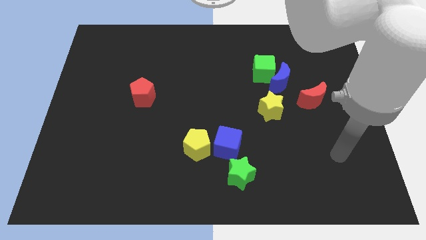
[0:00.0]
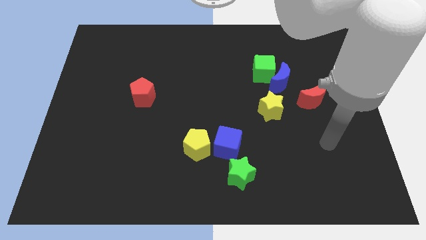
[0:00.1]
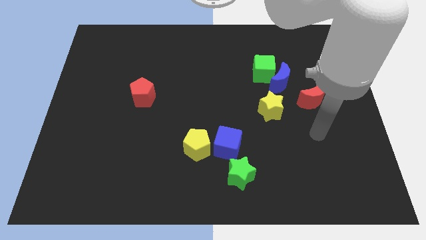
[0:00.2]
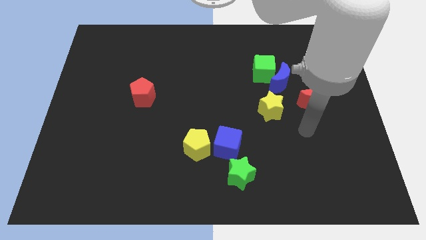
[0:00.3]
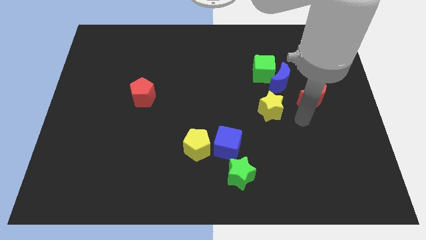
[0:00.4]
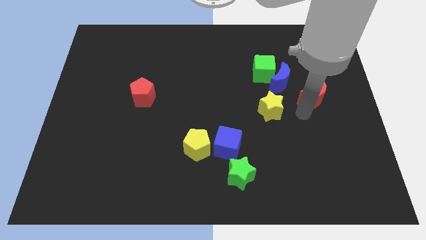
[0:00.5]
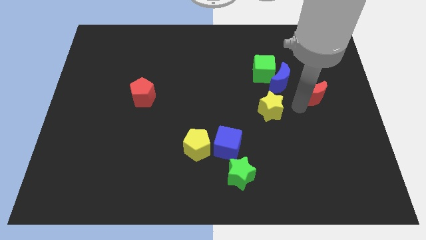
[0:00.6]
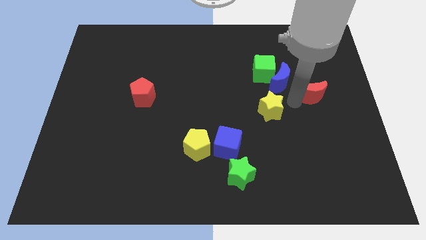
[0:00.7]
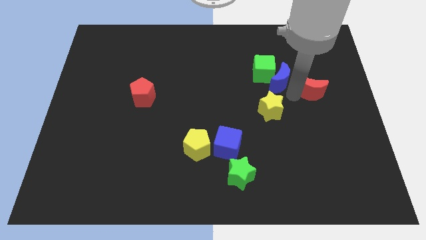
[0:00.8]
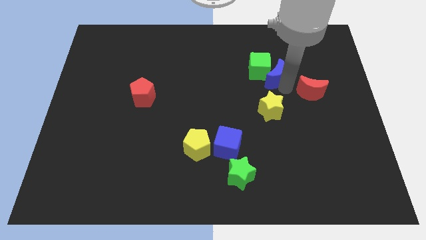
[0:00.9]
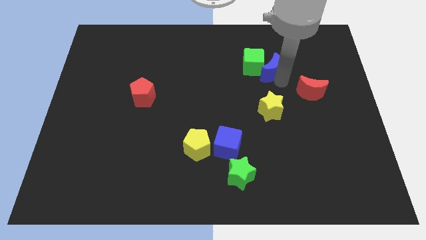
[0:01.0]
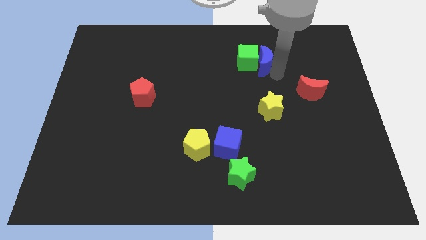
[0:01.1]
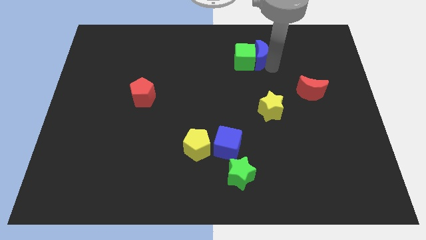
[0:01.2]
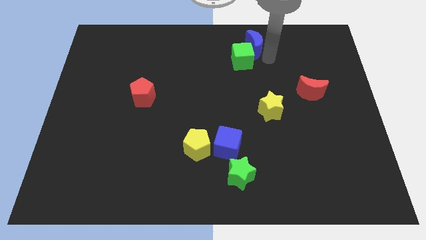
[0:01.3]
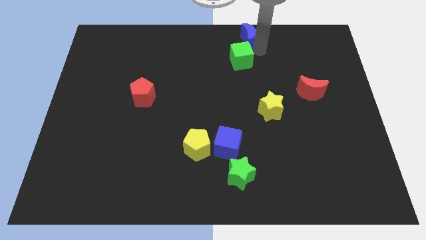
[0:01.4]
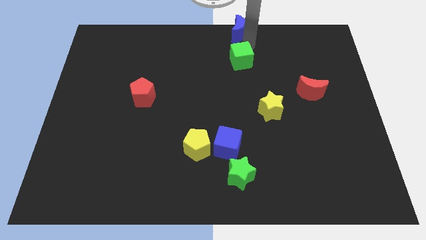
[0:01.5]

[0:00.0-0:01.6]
separate the green cube from the blue moon

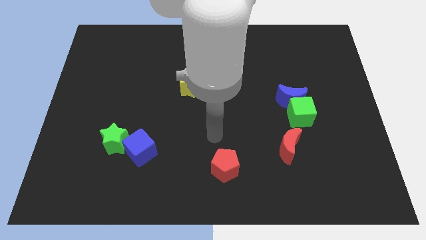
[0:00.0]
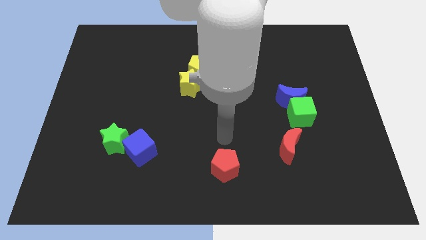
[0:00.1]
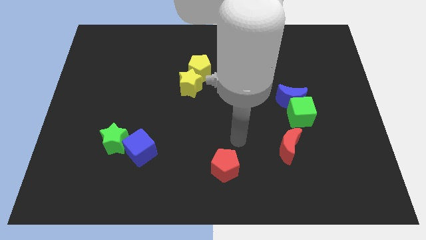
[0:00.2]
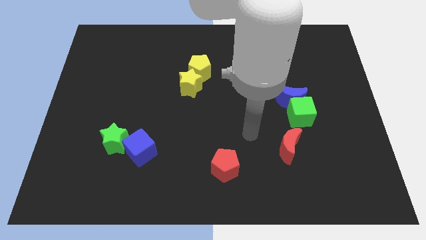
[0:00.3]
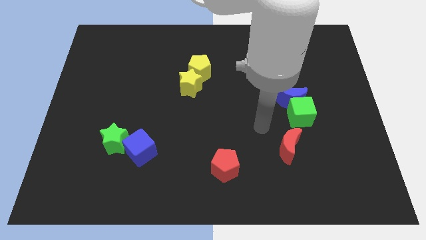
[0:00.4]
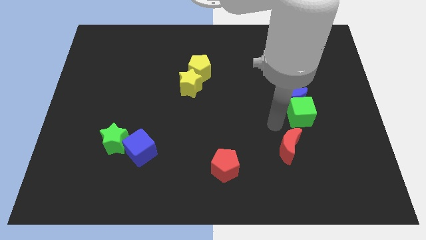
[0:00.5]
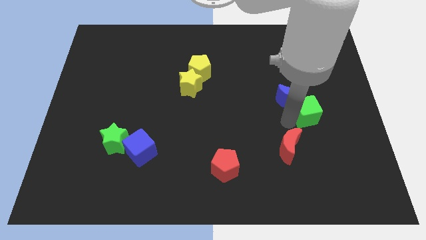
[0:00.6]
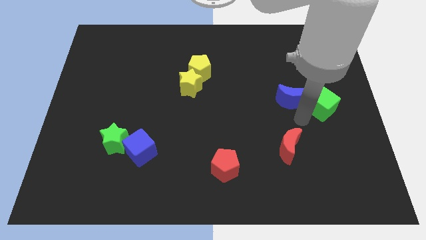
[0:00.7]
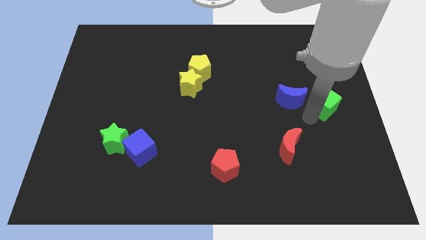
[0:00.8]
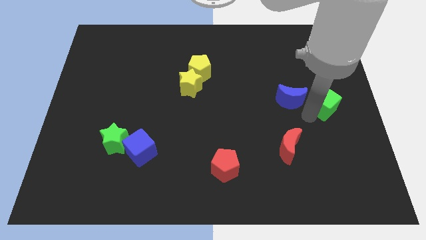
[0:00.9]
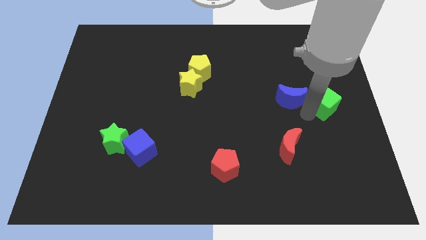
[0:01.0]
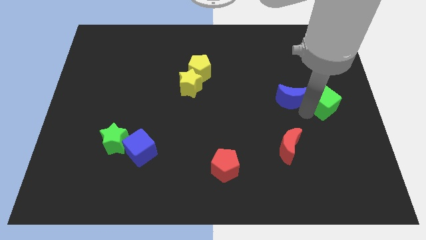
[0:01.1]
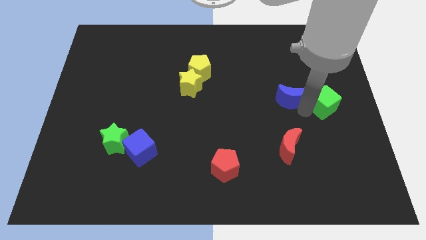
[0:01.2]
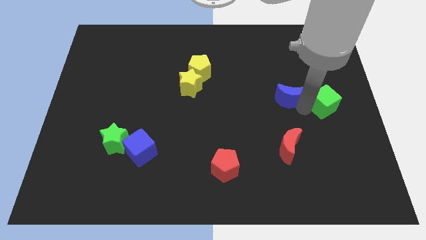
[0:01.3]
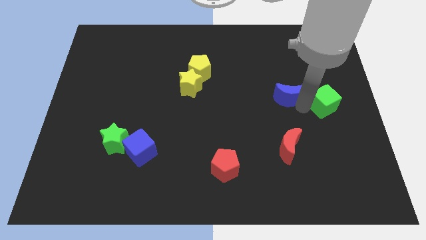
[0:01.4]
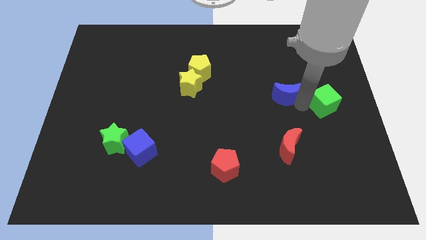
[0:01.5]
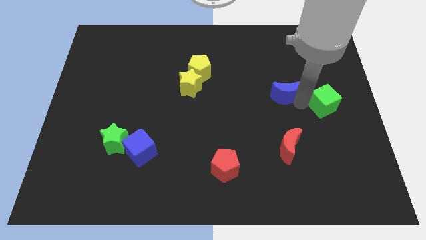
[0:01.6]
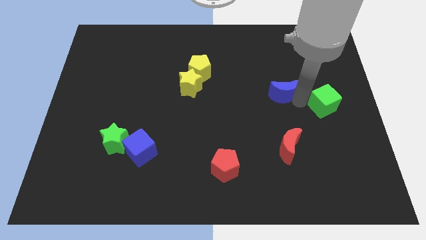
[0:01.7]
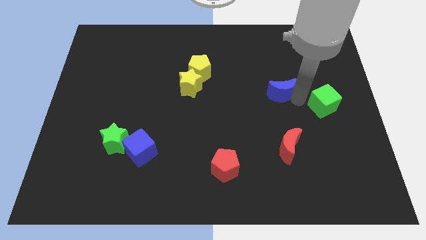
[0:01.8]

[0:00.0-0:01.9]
pull the blue moon apart from the green cube

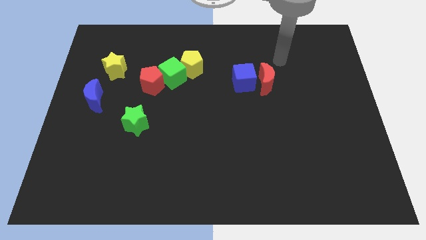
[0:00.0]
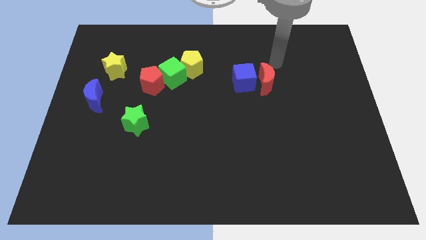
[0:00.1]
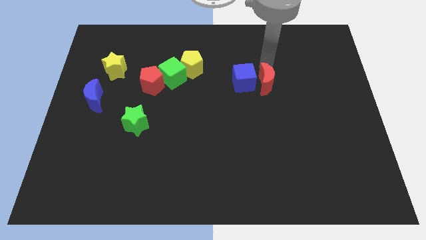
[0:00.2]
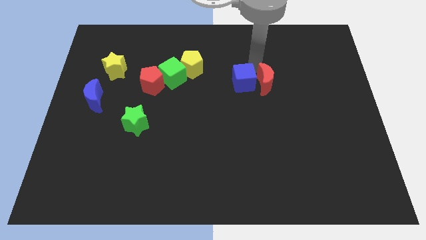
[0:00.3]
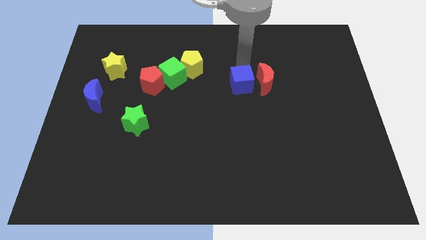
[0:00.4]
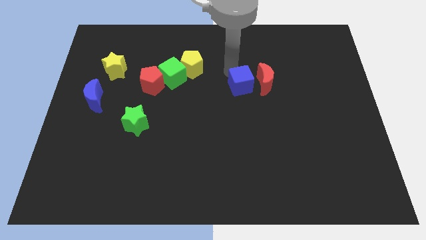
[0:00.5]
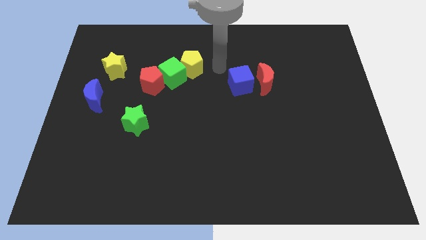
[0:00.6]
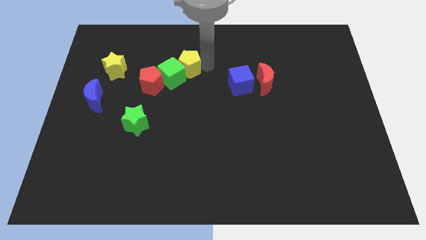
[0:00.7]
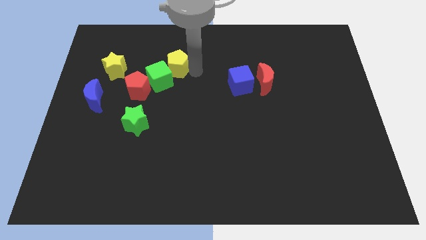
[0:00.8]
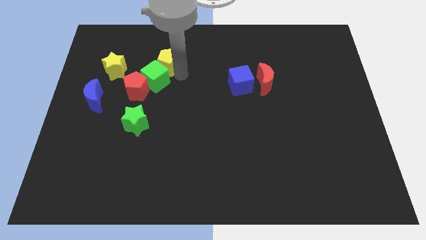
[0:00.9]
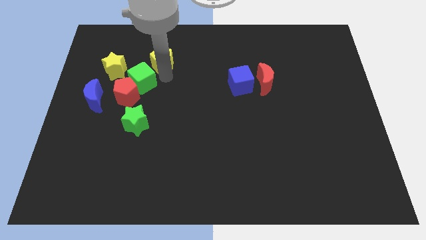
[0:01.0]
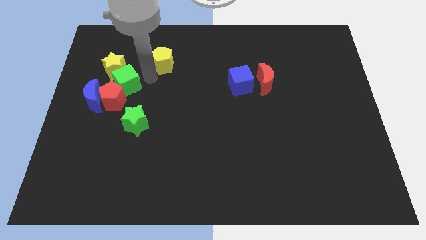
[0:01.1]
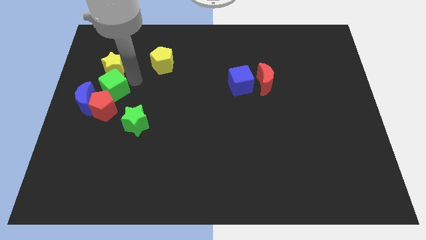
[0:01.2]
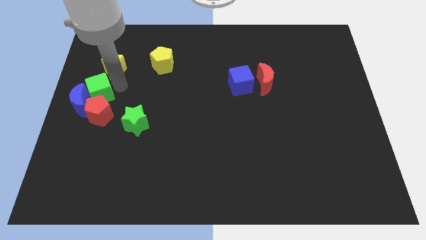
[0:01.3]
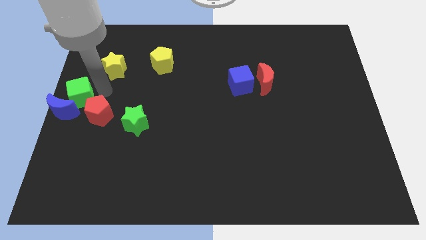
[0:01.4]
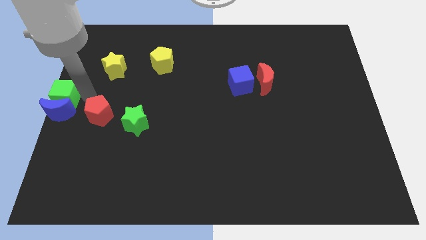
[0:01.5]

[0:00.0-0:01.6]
separate the red pentagon from the green cube

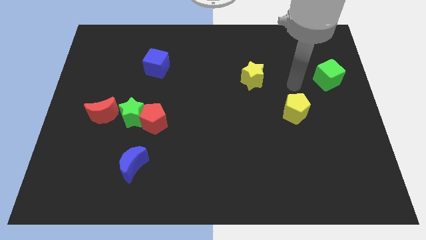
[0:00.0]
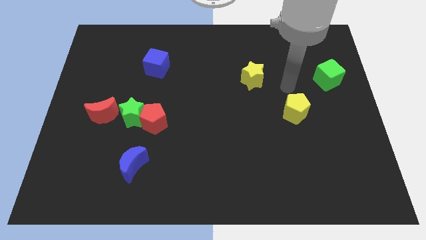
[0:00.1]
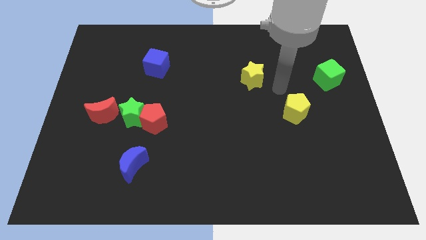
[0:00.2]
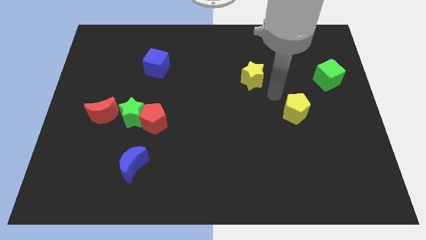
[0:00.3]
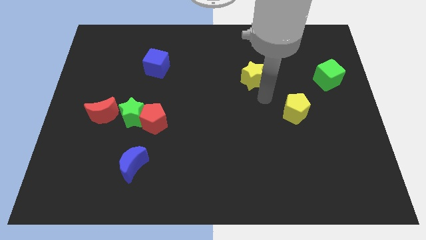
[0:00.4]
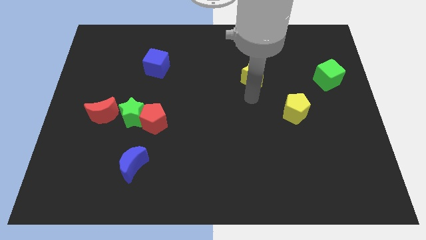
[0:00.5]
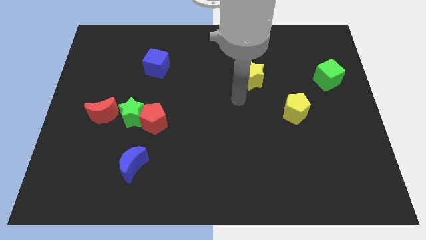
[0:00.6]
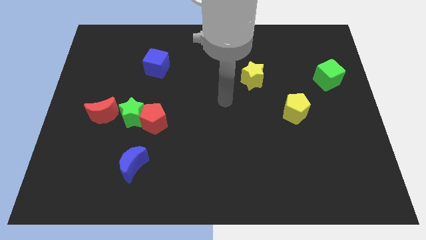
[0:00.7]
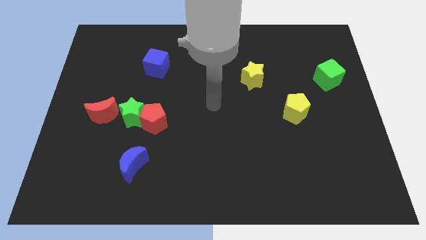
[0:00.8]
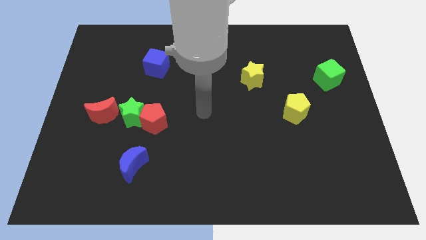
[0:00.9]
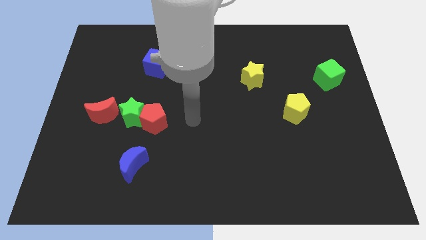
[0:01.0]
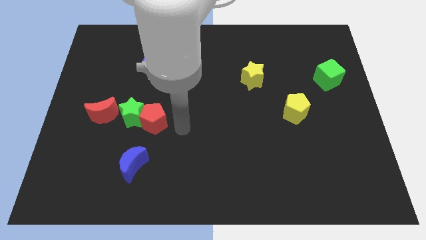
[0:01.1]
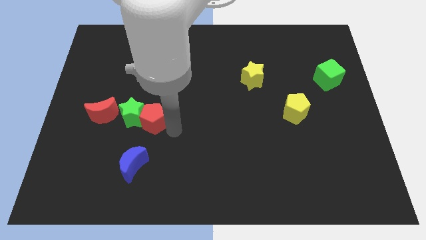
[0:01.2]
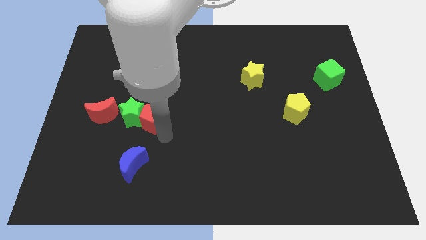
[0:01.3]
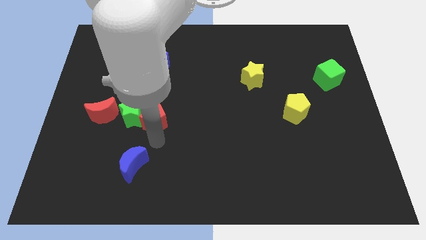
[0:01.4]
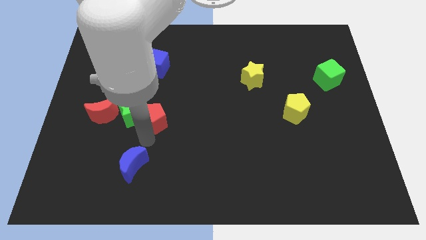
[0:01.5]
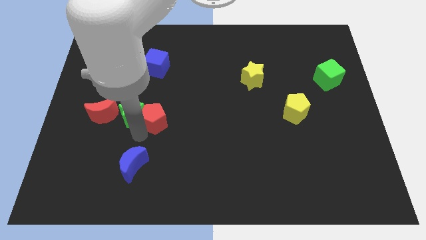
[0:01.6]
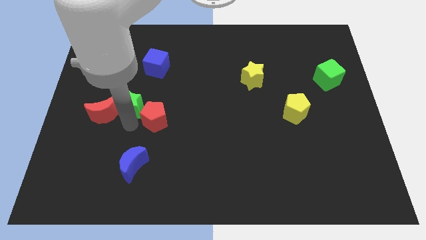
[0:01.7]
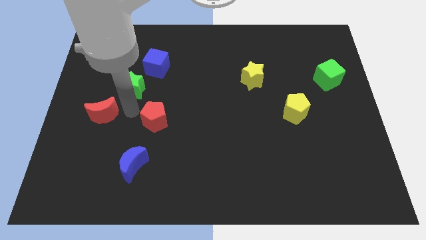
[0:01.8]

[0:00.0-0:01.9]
pull the red pentagon apart from the green star

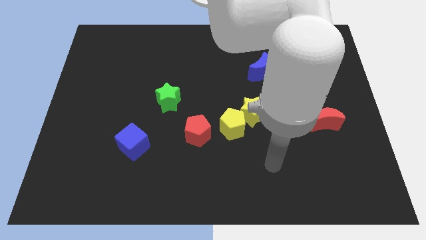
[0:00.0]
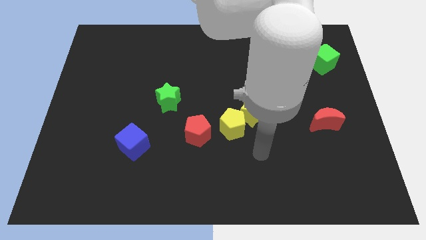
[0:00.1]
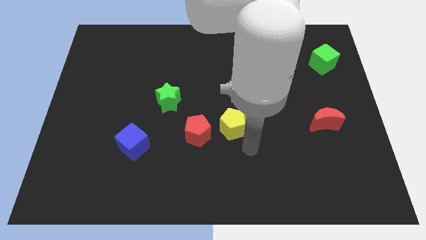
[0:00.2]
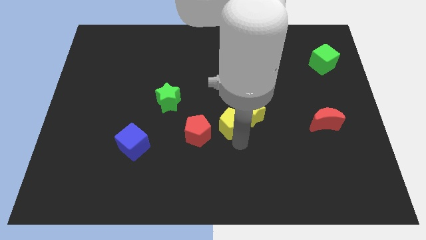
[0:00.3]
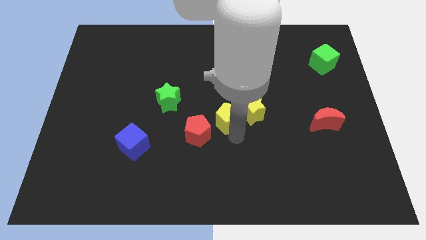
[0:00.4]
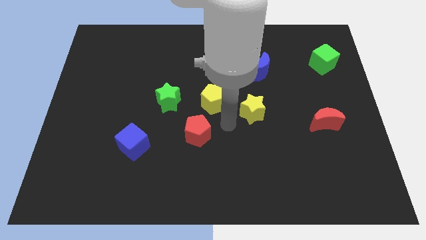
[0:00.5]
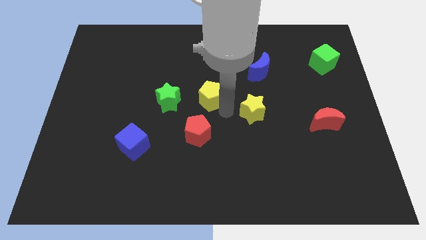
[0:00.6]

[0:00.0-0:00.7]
separate the yellow star from the yellow pentagon

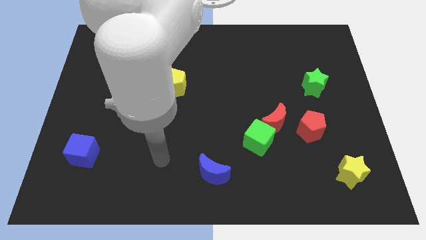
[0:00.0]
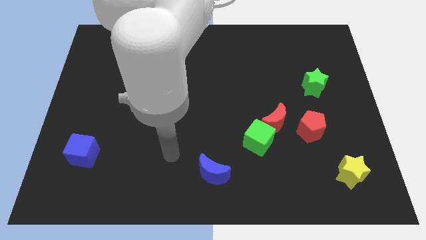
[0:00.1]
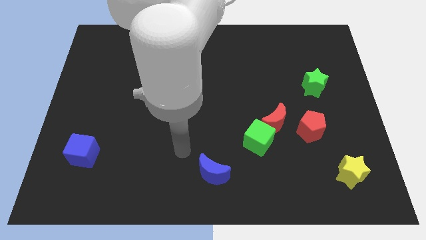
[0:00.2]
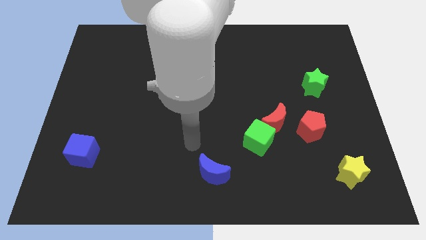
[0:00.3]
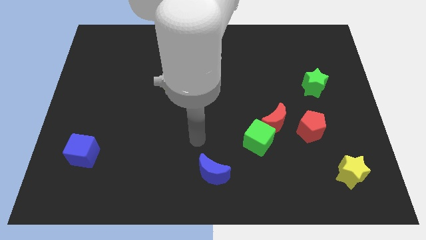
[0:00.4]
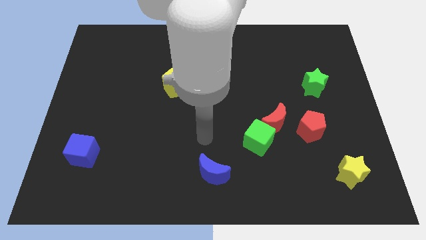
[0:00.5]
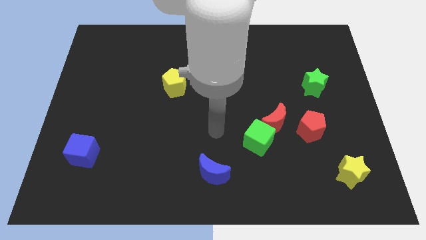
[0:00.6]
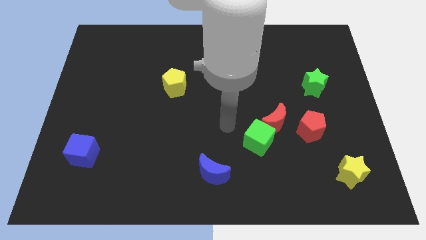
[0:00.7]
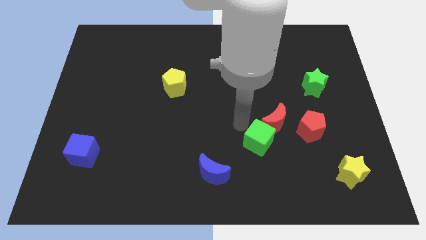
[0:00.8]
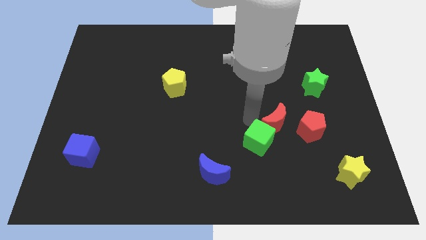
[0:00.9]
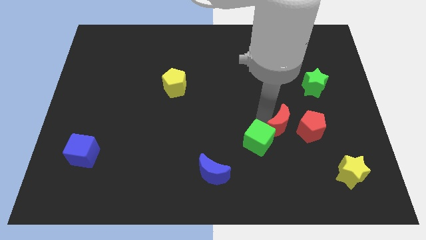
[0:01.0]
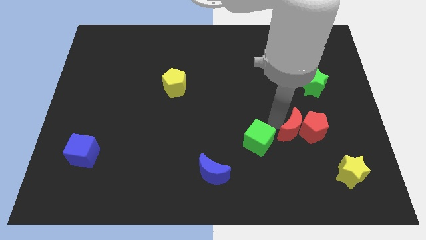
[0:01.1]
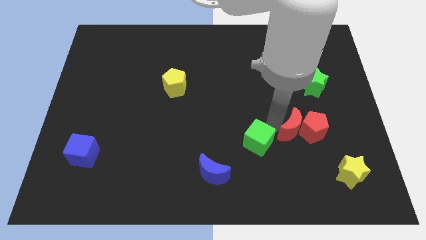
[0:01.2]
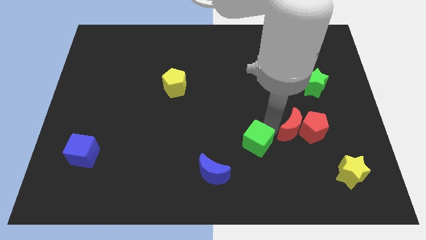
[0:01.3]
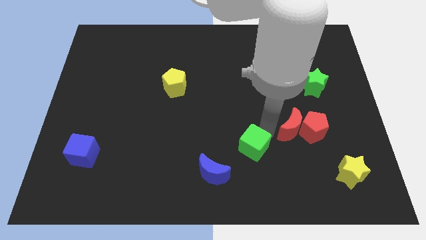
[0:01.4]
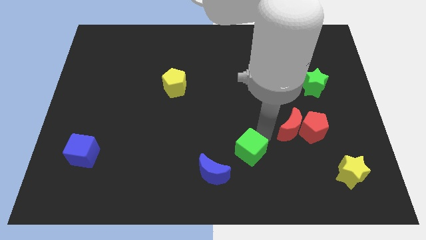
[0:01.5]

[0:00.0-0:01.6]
separate the green cube from the red moon

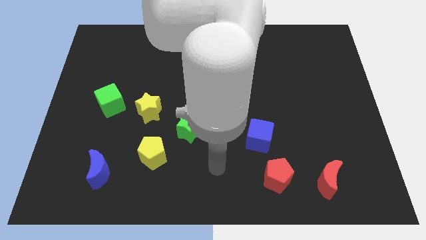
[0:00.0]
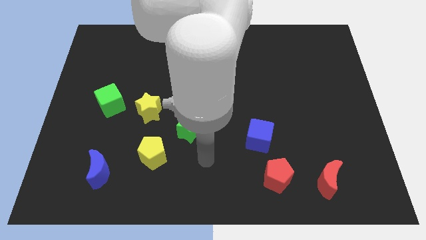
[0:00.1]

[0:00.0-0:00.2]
move the green cube away from the yellow star
